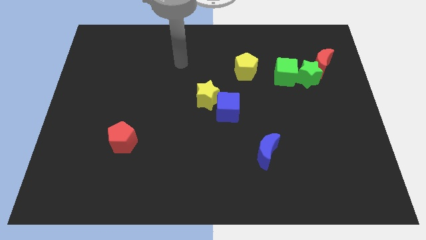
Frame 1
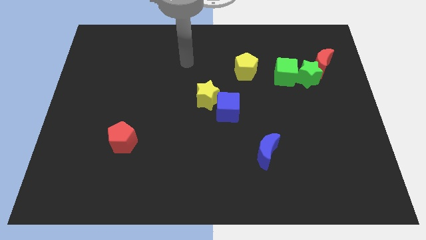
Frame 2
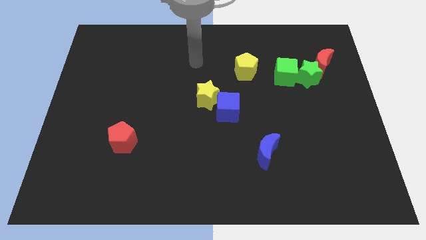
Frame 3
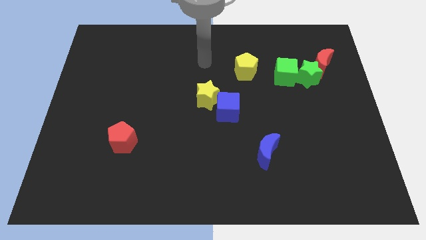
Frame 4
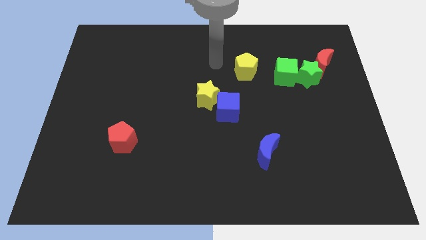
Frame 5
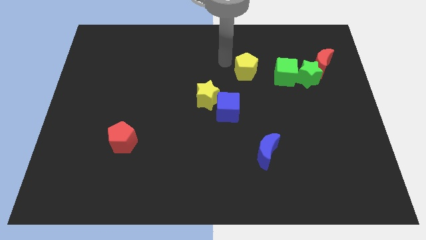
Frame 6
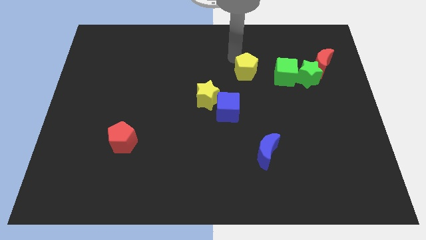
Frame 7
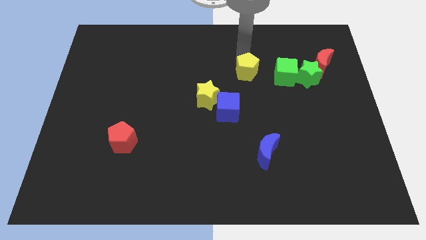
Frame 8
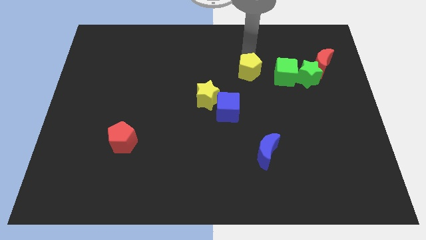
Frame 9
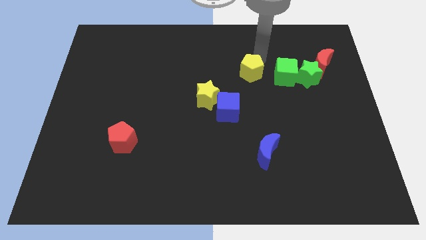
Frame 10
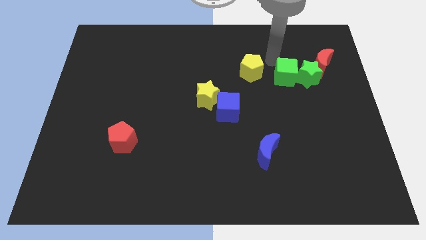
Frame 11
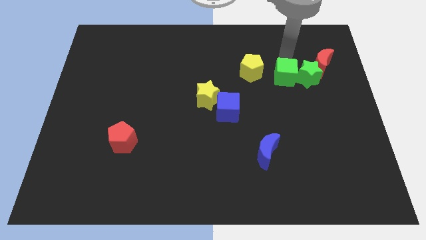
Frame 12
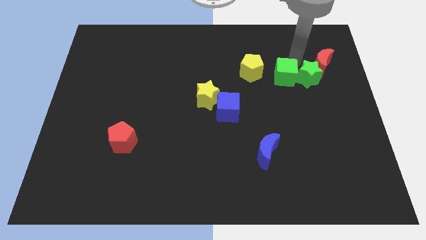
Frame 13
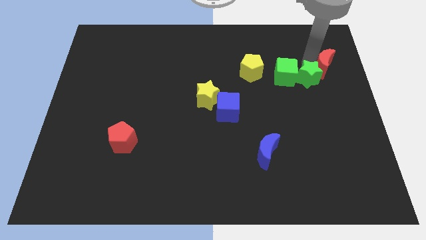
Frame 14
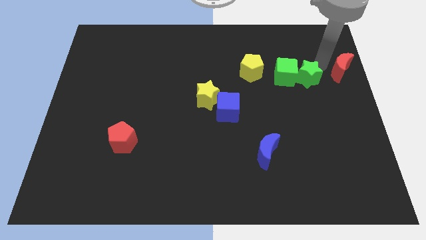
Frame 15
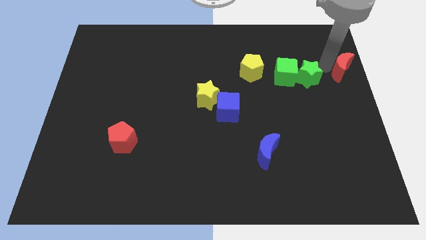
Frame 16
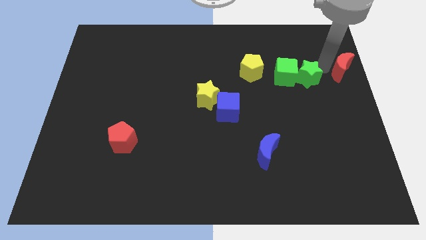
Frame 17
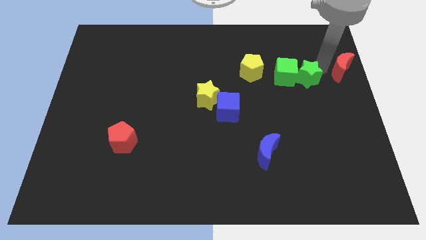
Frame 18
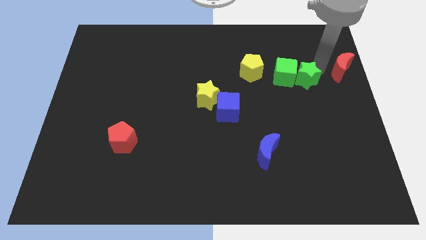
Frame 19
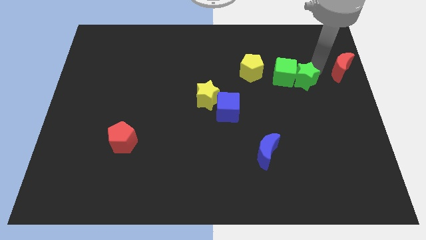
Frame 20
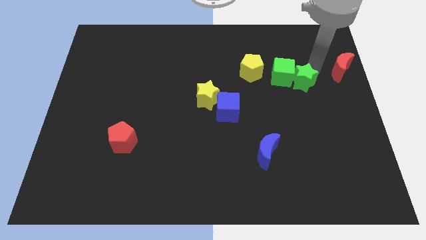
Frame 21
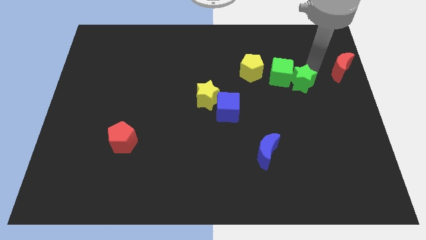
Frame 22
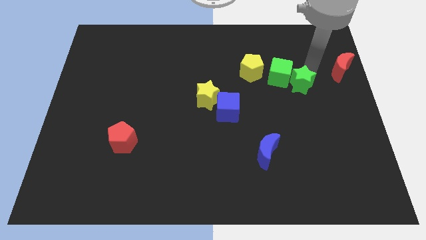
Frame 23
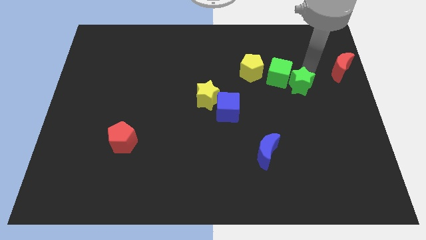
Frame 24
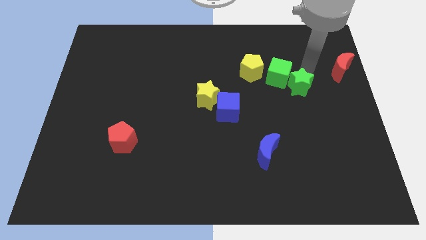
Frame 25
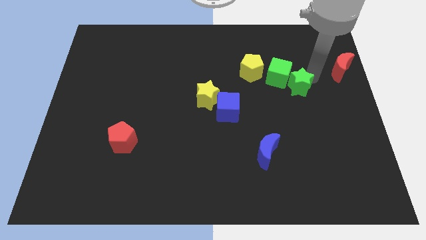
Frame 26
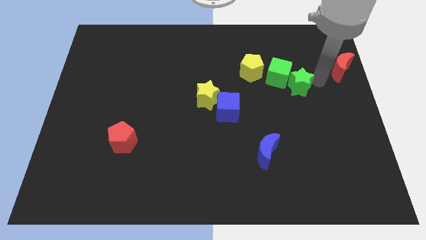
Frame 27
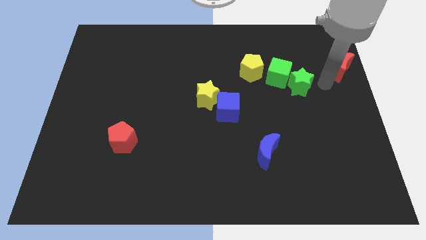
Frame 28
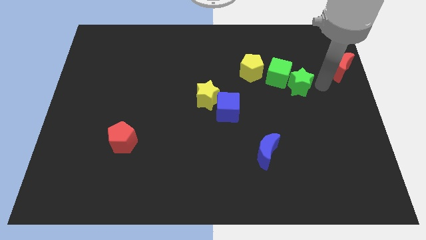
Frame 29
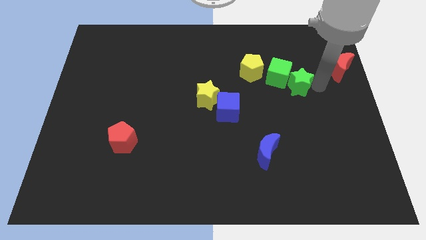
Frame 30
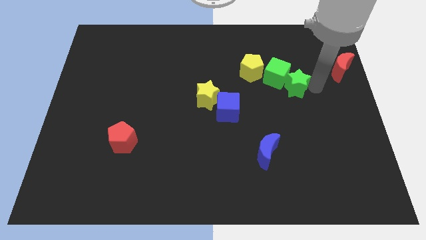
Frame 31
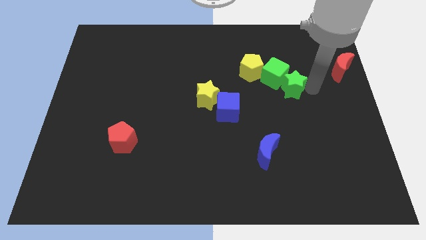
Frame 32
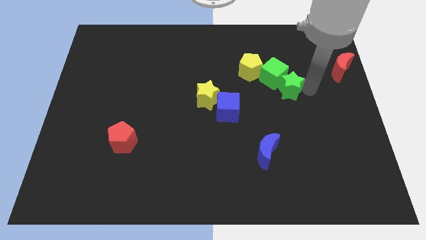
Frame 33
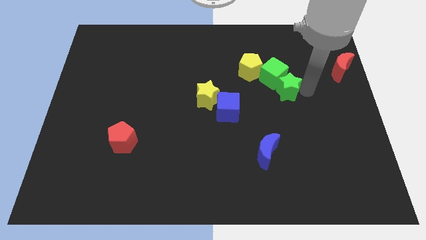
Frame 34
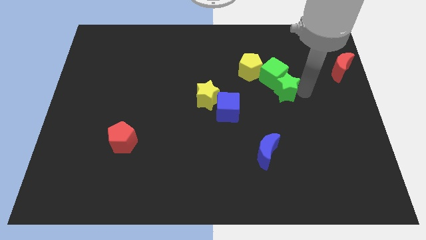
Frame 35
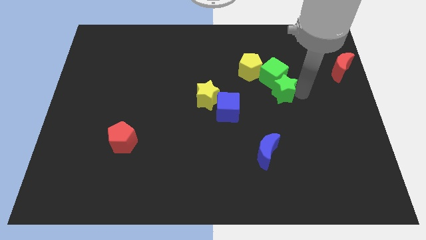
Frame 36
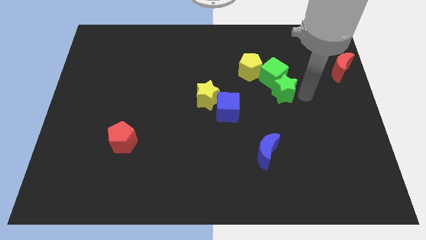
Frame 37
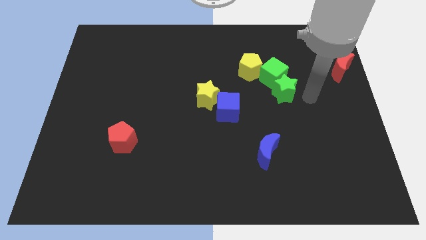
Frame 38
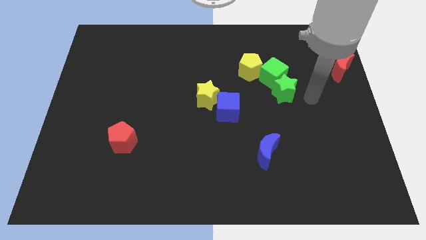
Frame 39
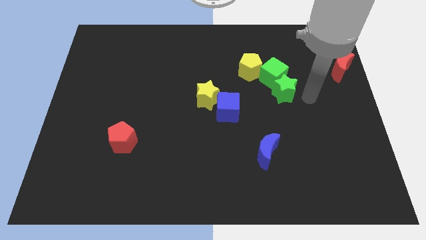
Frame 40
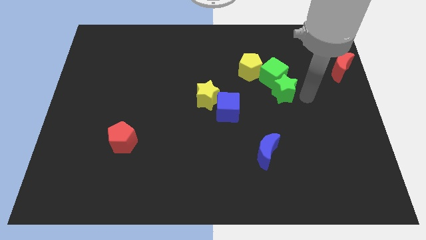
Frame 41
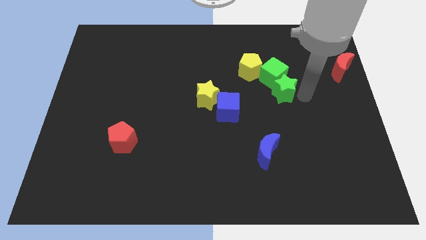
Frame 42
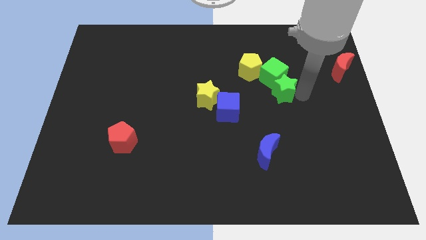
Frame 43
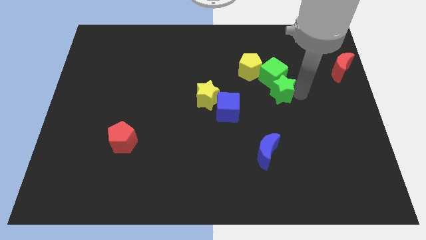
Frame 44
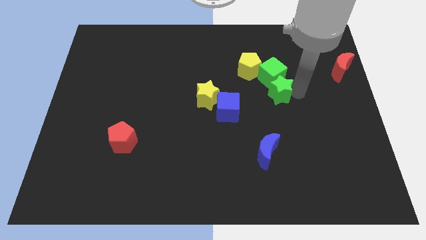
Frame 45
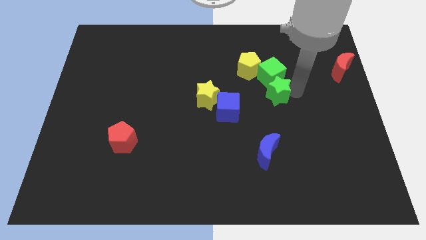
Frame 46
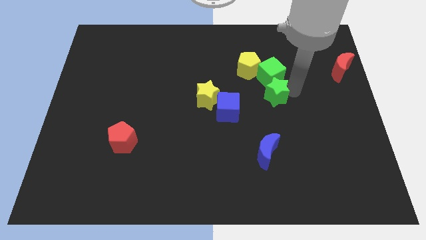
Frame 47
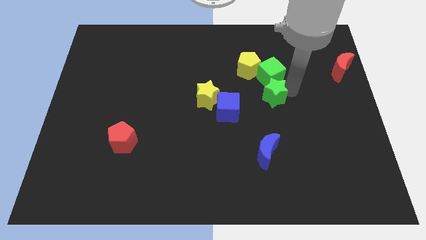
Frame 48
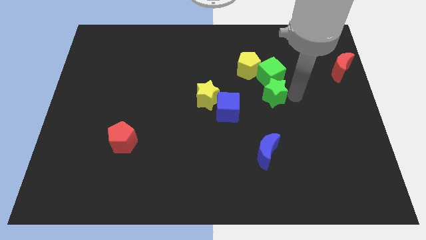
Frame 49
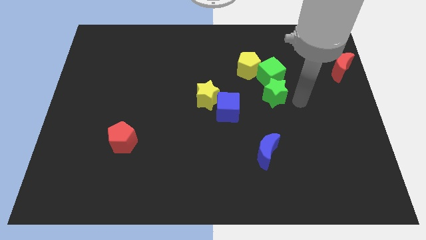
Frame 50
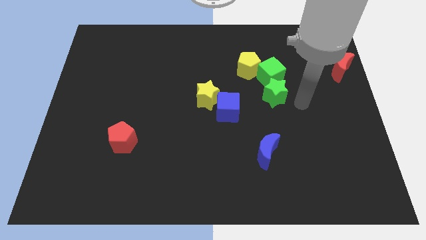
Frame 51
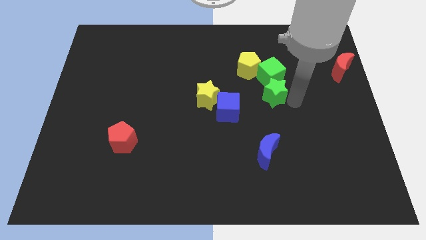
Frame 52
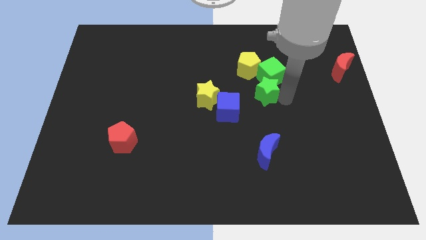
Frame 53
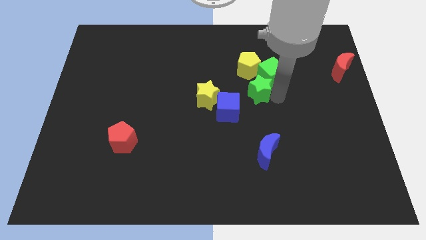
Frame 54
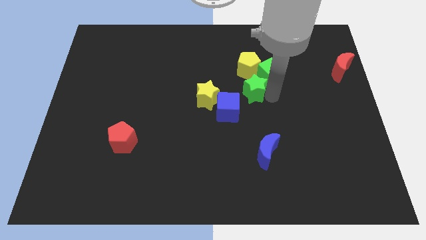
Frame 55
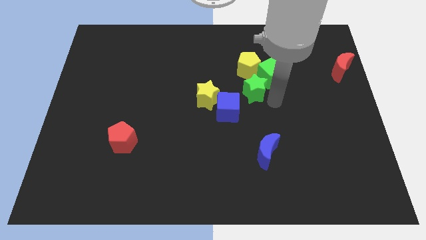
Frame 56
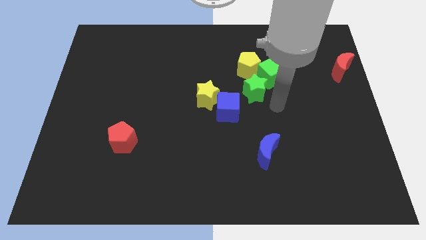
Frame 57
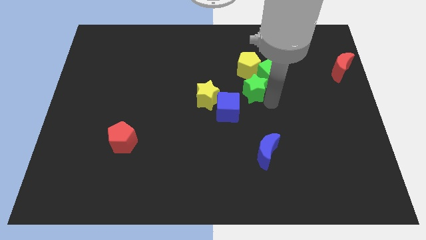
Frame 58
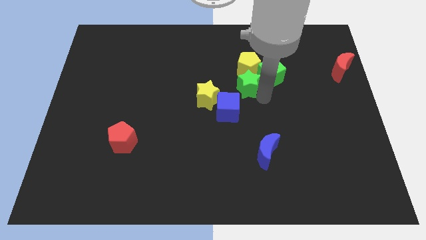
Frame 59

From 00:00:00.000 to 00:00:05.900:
put the green star left of the green cube

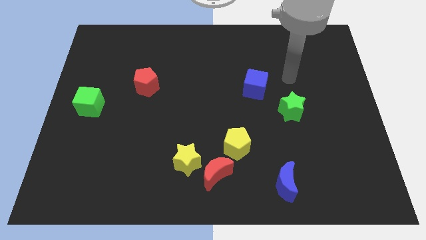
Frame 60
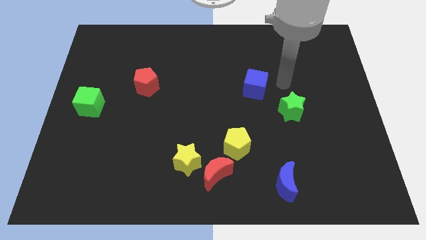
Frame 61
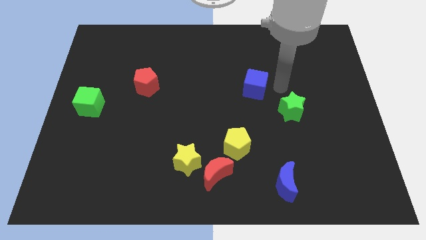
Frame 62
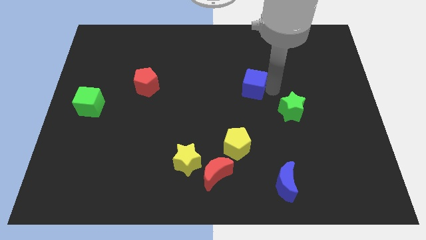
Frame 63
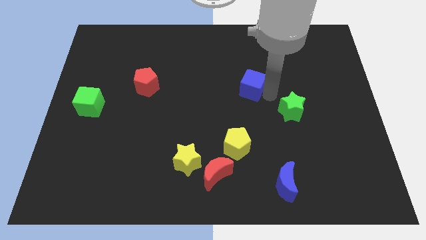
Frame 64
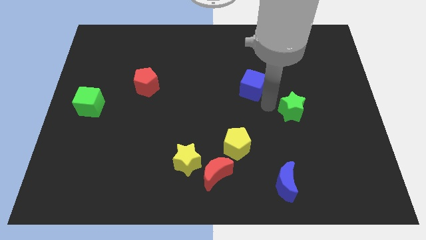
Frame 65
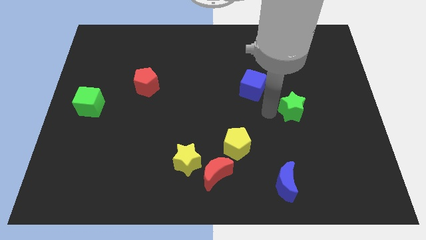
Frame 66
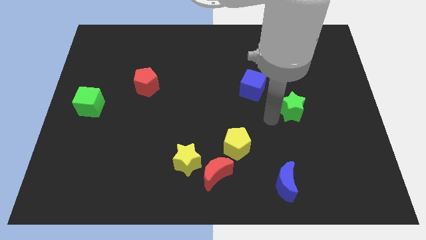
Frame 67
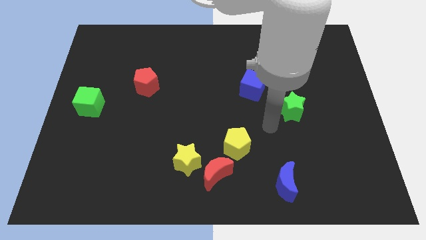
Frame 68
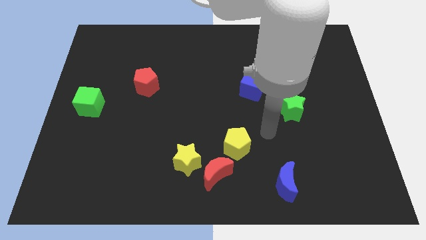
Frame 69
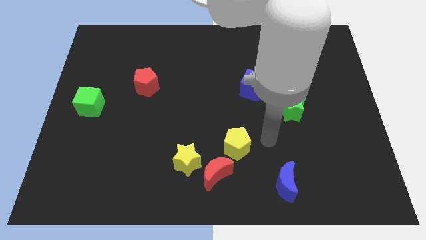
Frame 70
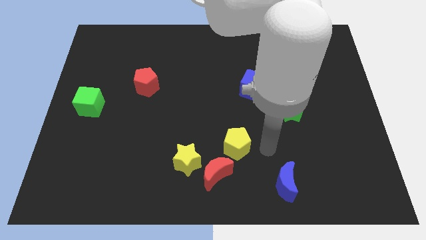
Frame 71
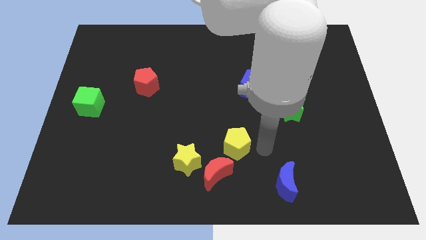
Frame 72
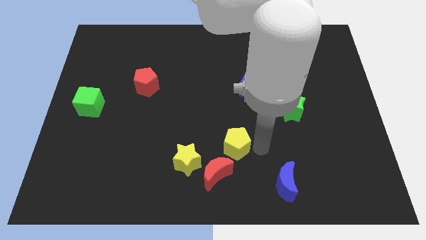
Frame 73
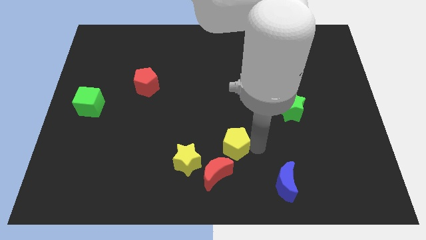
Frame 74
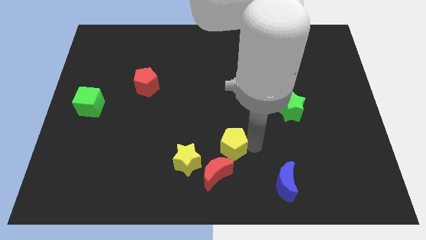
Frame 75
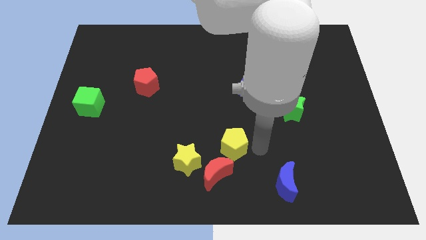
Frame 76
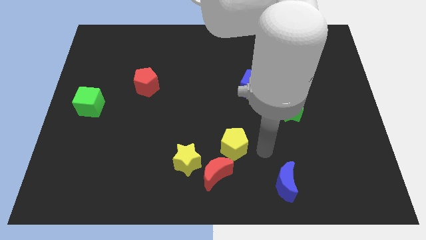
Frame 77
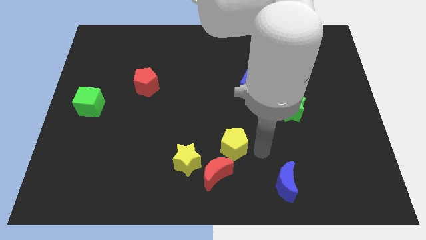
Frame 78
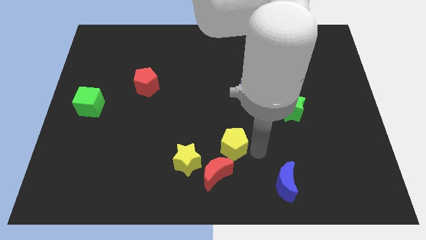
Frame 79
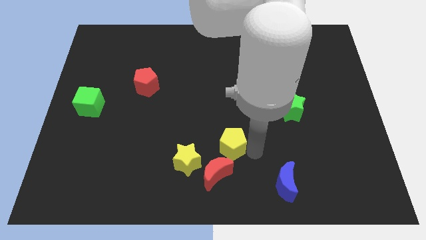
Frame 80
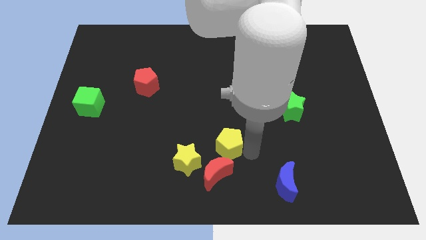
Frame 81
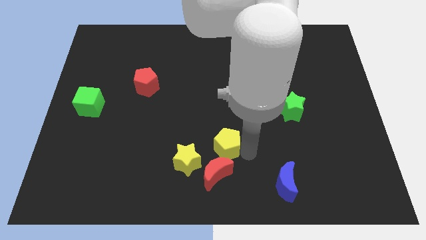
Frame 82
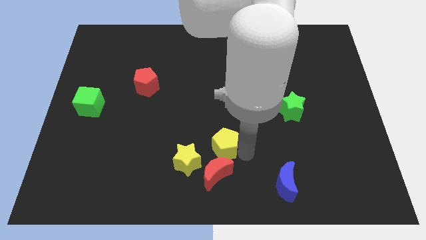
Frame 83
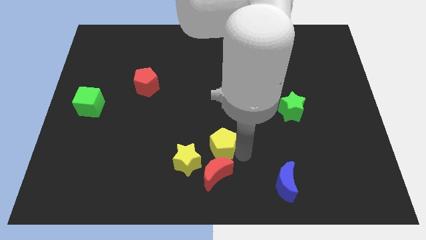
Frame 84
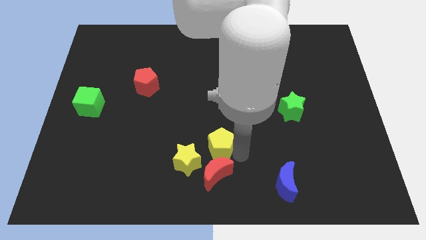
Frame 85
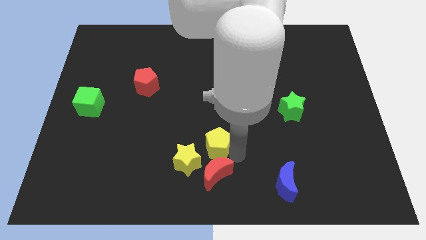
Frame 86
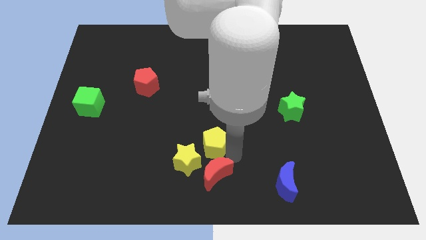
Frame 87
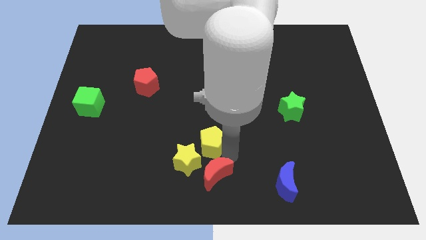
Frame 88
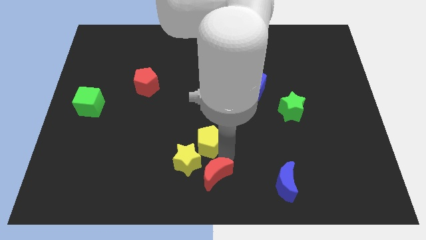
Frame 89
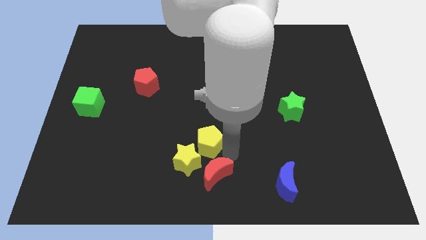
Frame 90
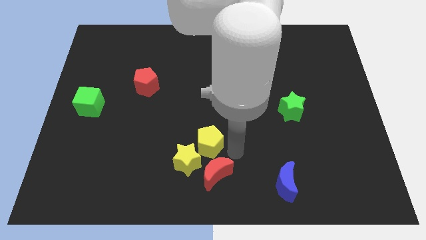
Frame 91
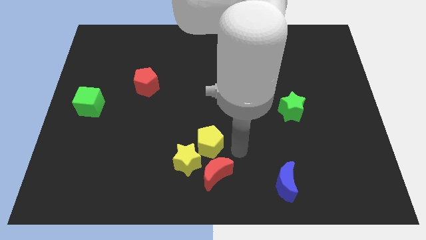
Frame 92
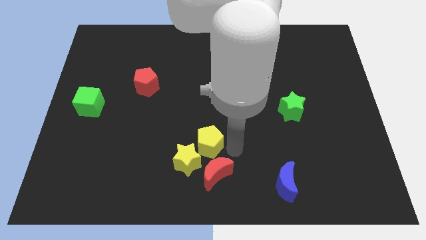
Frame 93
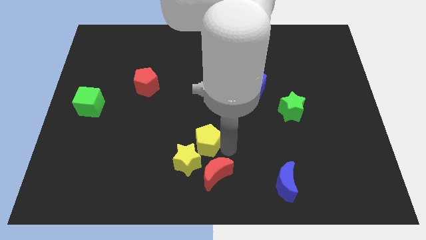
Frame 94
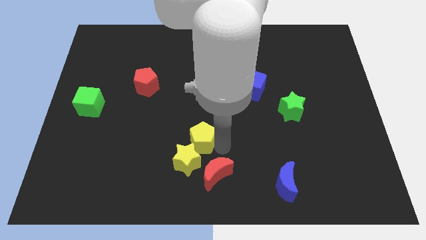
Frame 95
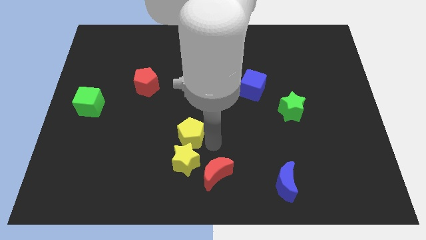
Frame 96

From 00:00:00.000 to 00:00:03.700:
move the yellow pentagon to the top left of the yellow star
